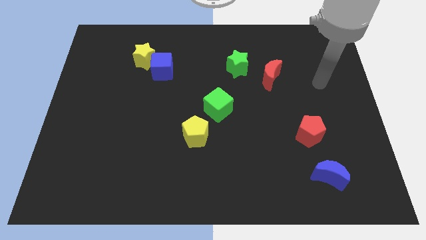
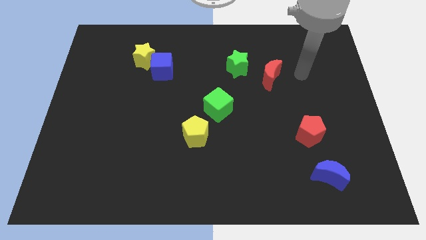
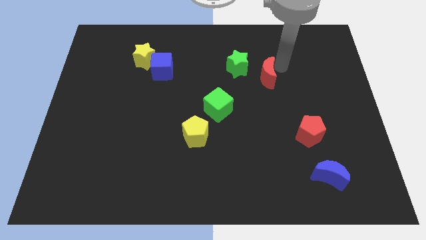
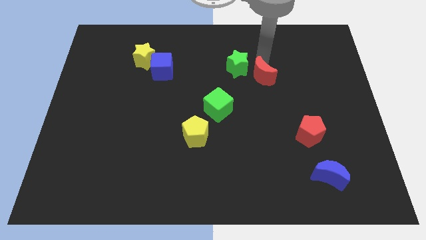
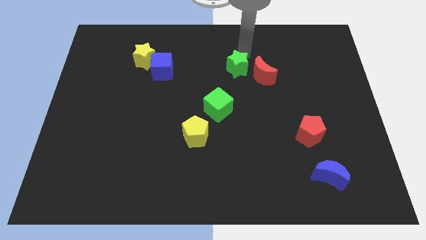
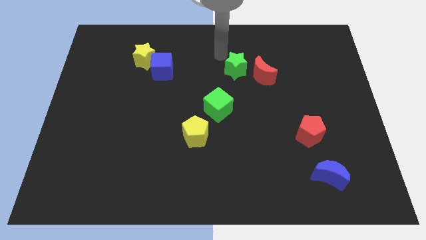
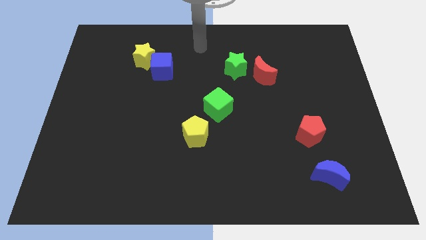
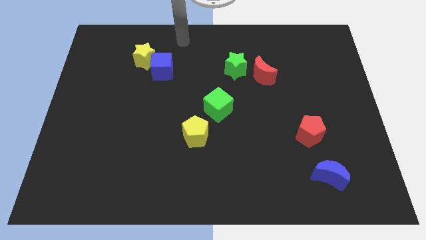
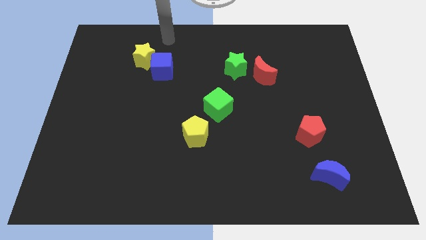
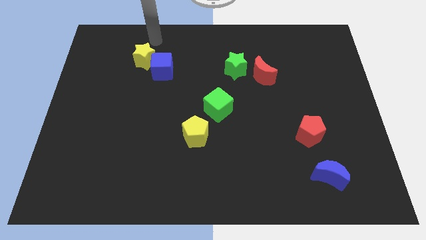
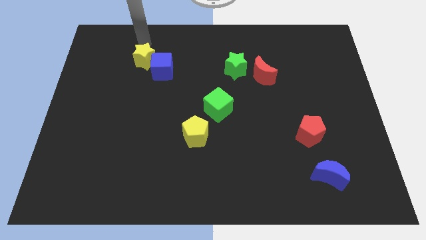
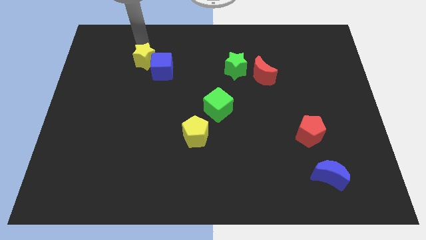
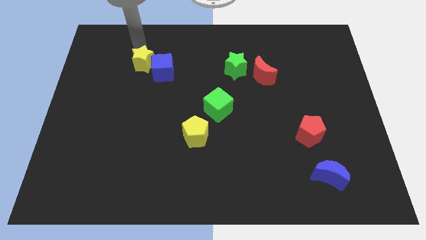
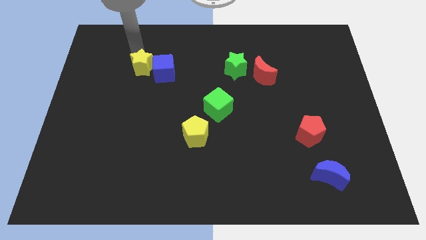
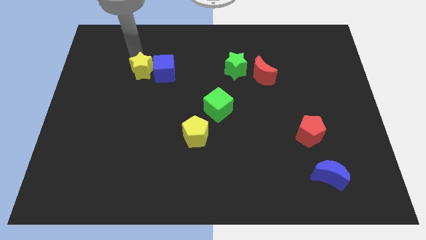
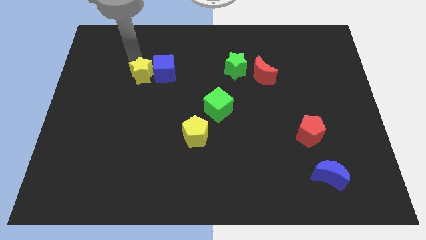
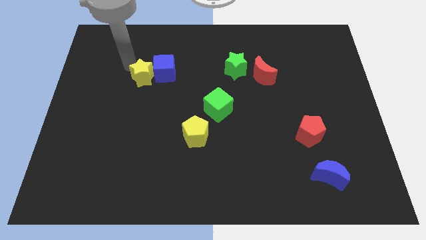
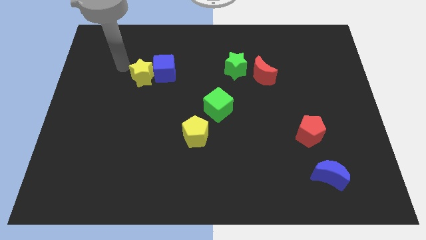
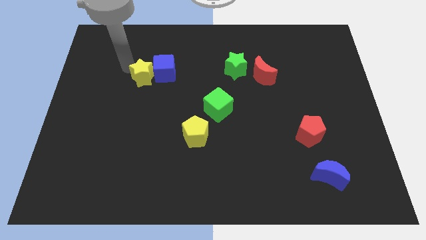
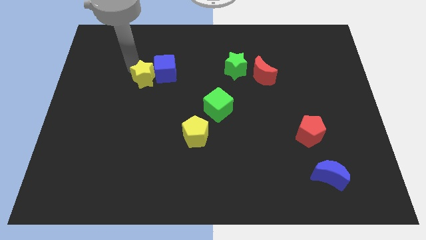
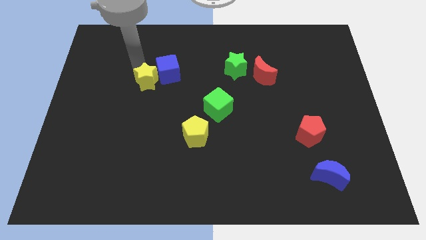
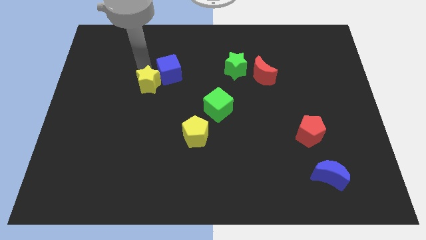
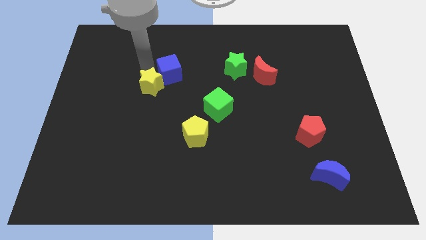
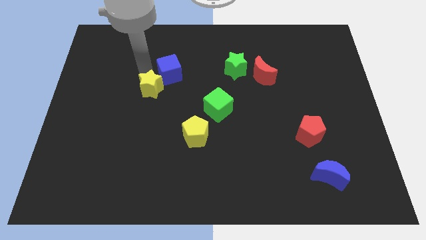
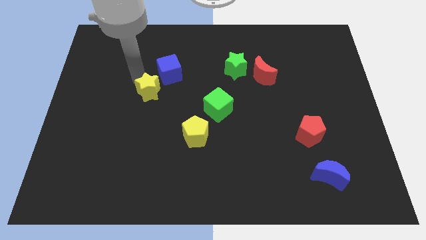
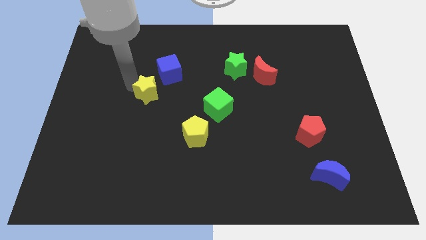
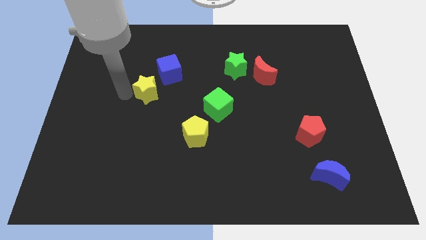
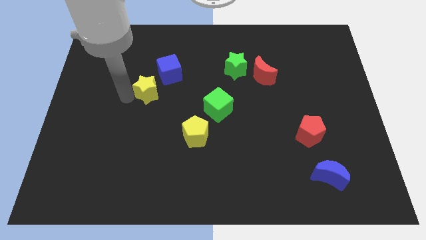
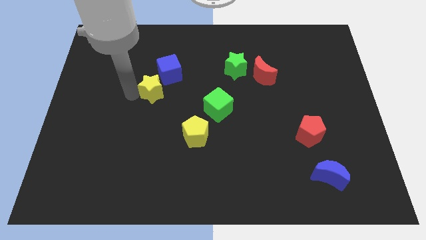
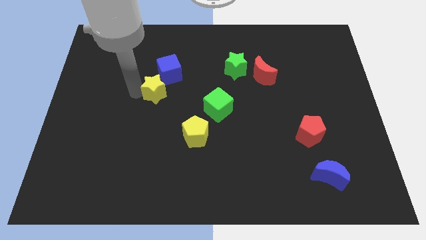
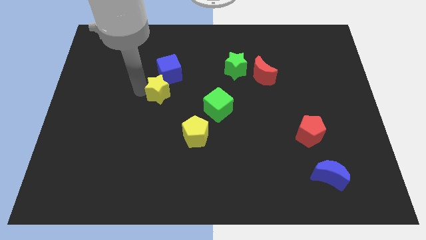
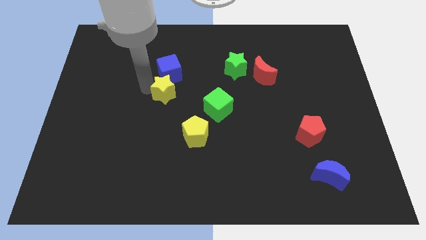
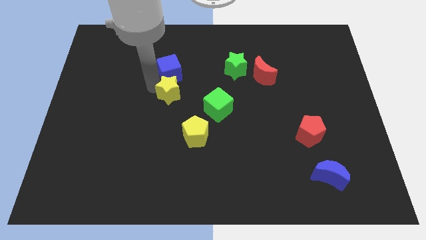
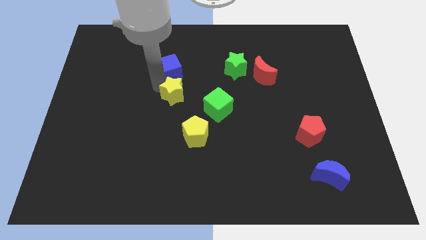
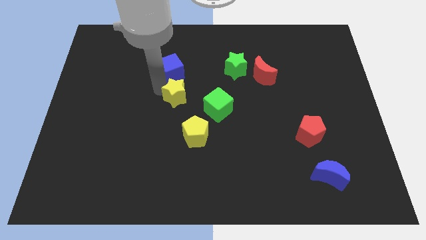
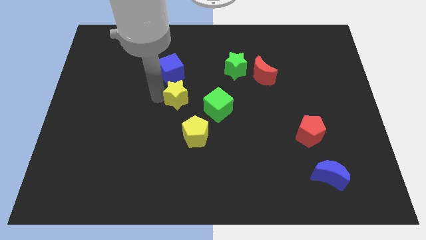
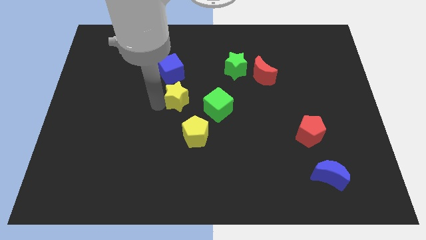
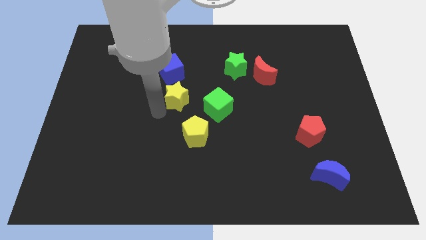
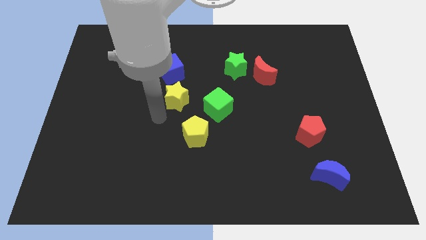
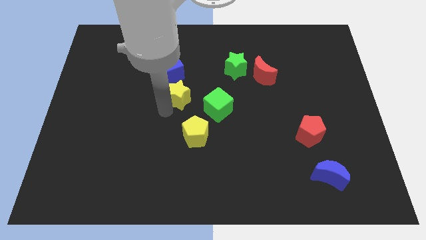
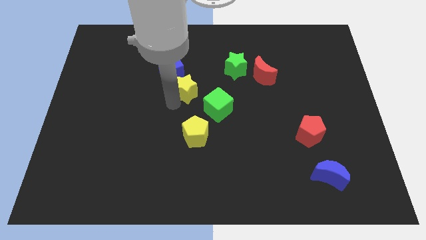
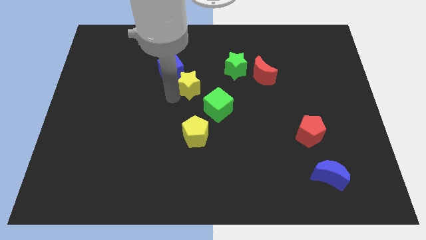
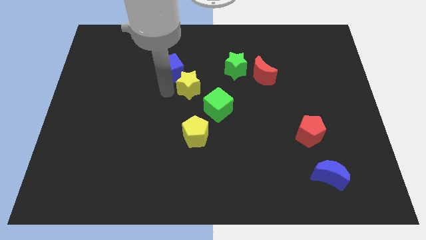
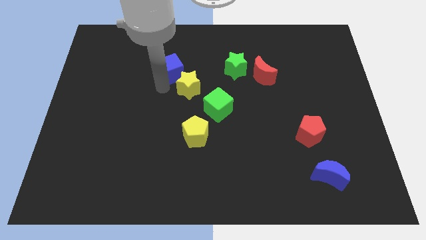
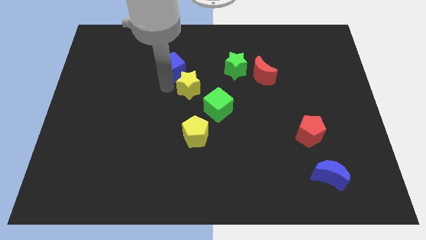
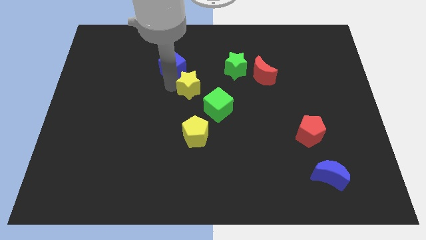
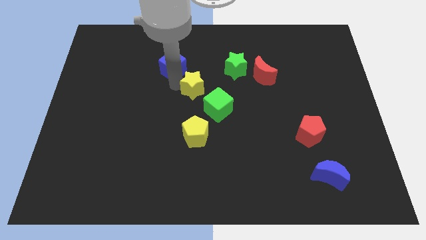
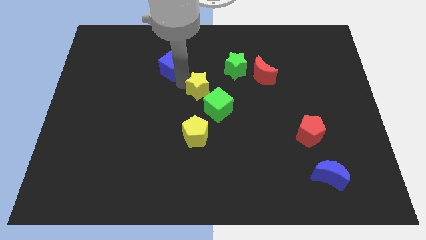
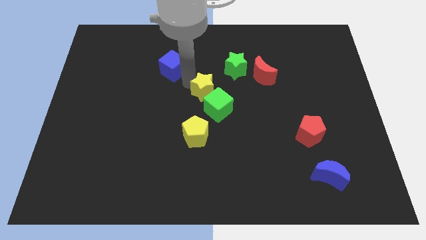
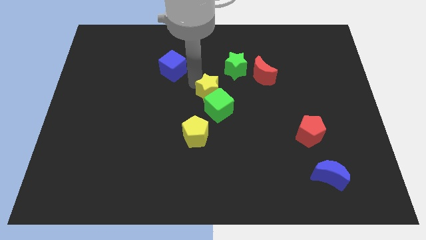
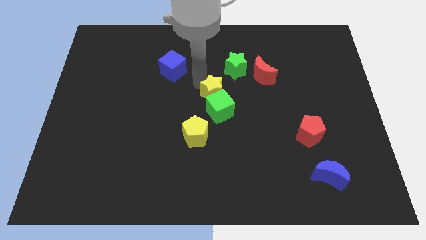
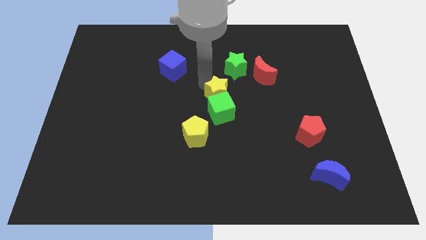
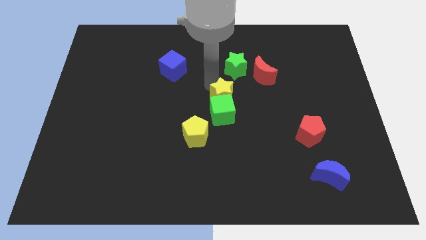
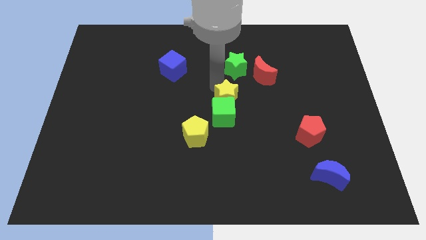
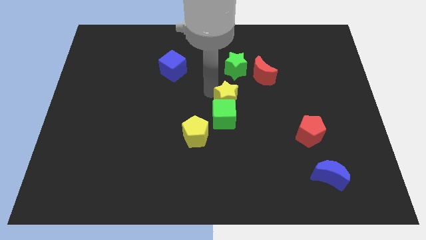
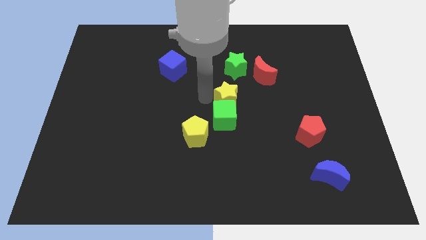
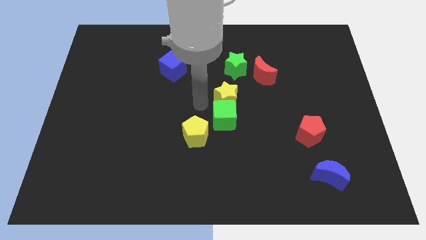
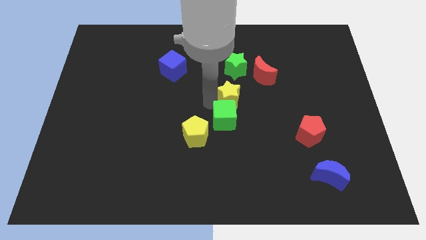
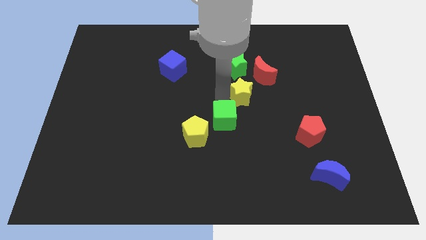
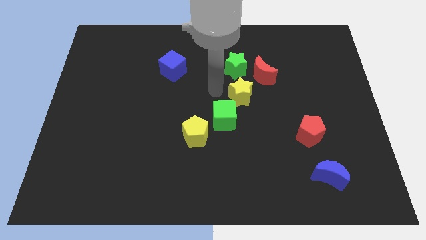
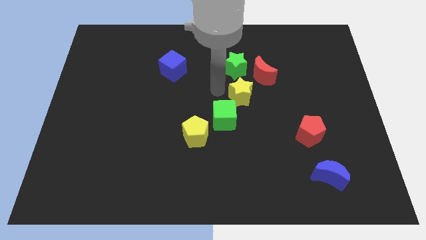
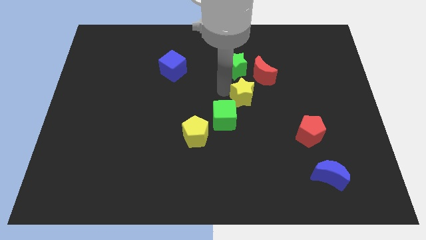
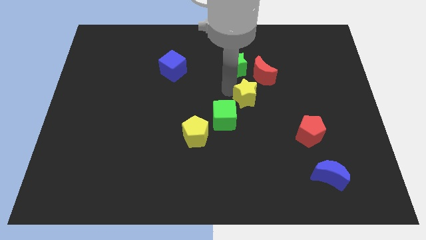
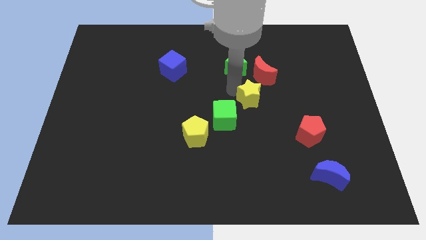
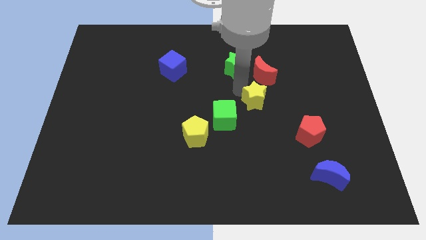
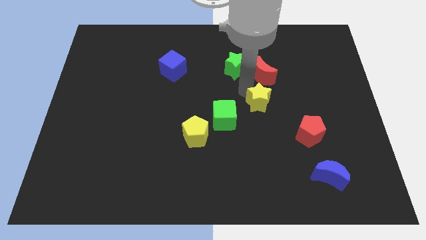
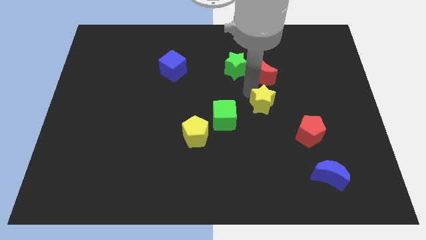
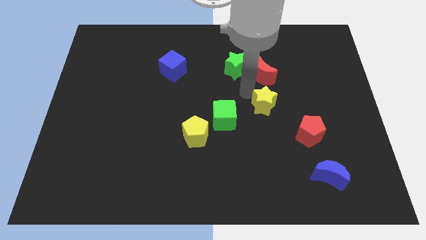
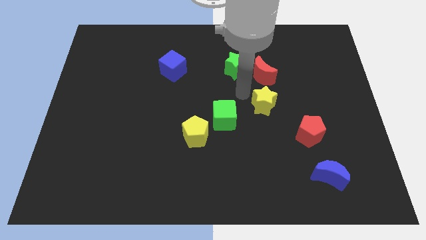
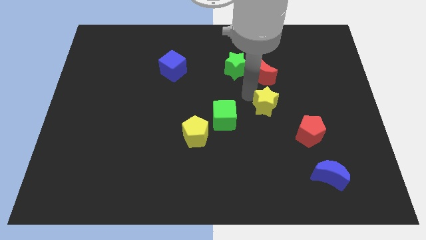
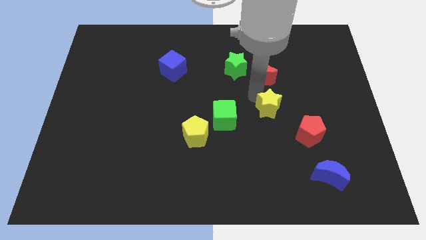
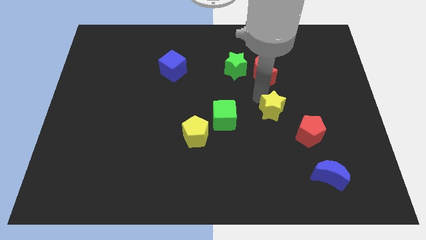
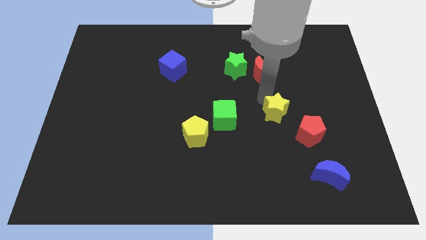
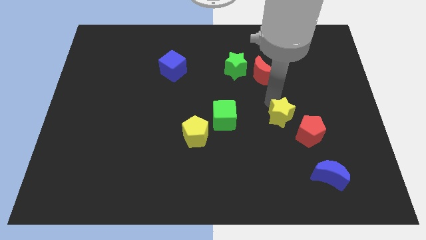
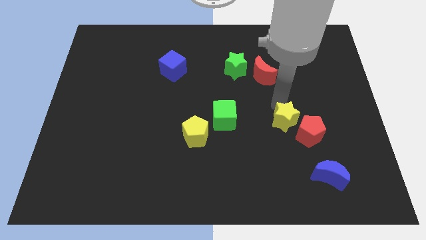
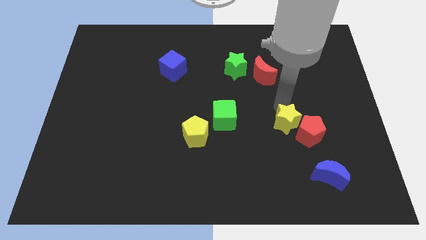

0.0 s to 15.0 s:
slide the yellow star towards the red pentagon
